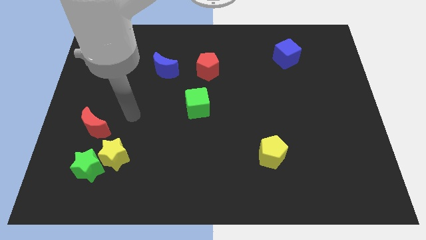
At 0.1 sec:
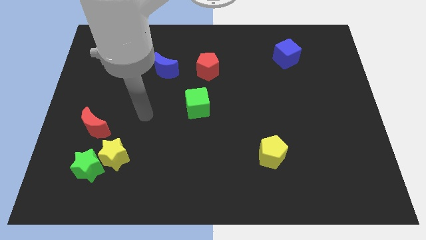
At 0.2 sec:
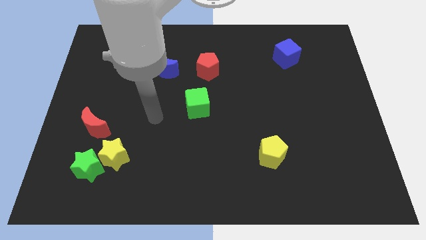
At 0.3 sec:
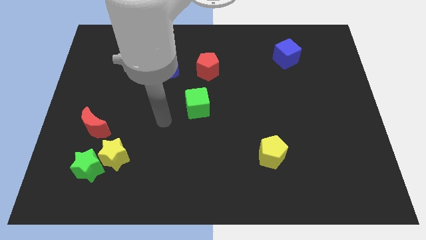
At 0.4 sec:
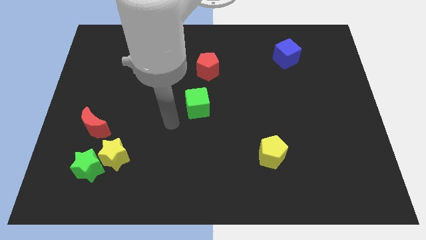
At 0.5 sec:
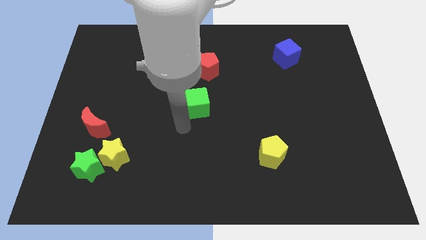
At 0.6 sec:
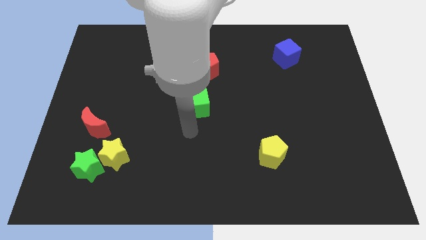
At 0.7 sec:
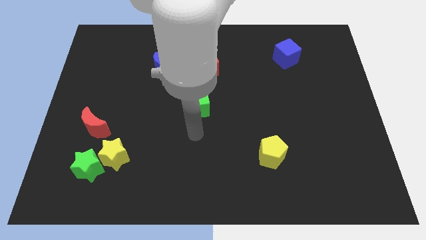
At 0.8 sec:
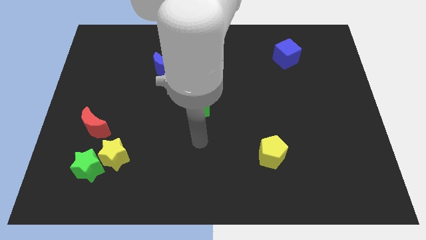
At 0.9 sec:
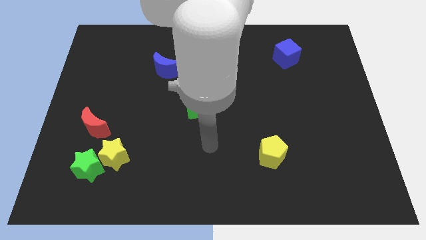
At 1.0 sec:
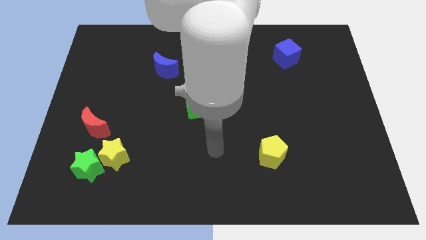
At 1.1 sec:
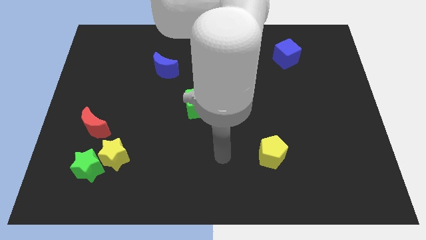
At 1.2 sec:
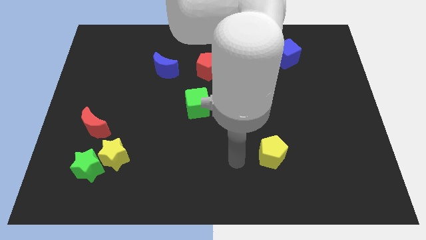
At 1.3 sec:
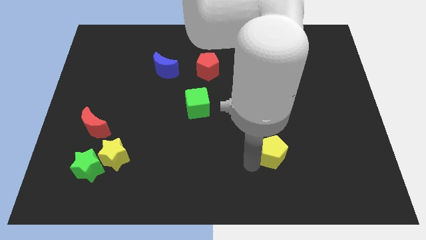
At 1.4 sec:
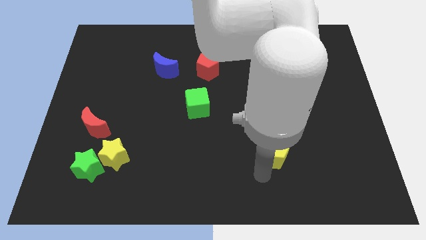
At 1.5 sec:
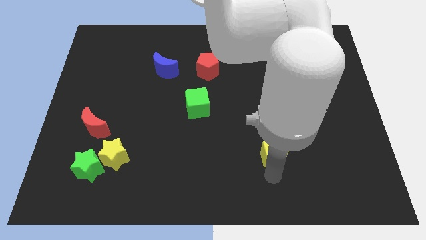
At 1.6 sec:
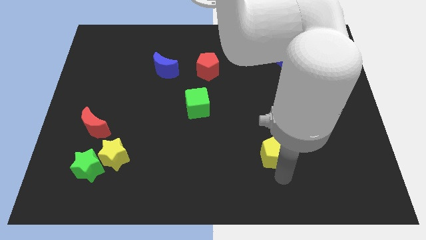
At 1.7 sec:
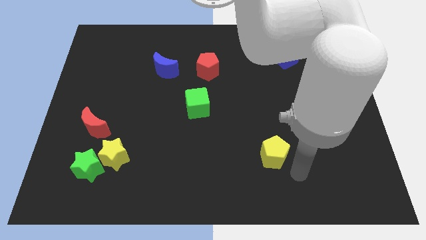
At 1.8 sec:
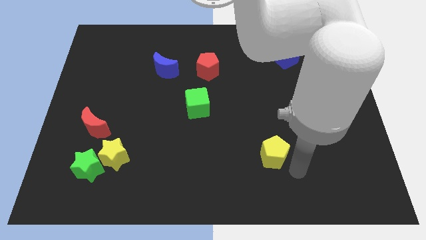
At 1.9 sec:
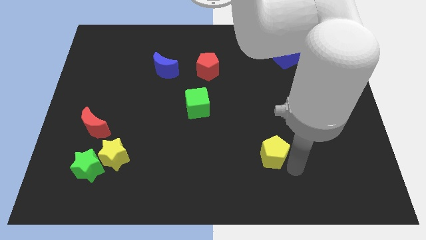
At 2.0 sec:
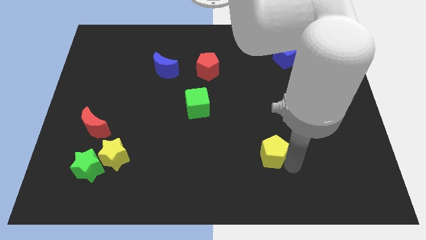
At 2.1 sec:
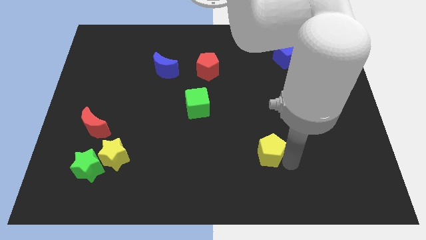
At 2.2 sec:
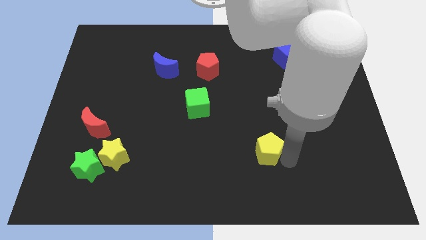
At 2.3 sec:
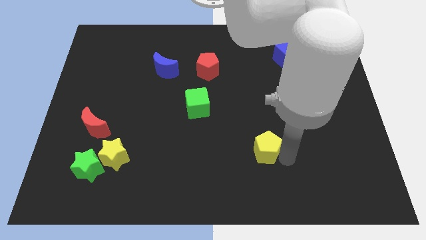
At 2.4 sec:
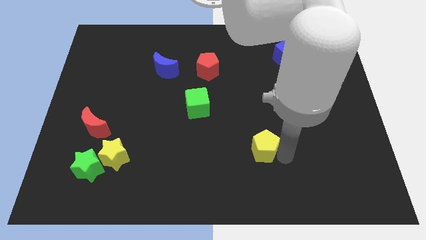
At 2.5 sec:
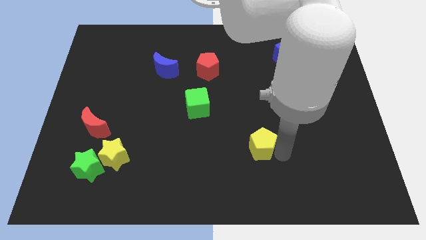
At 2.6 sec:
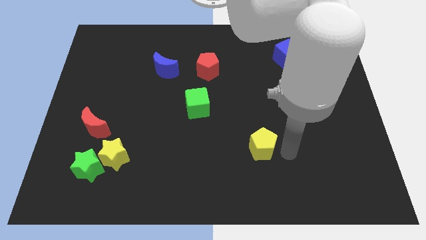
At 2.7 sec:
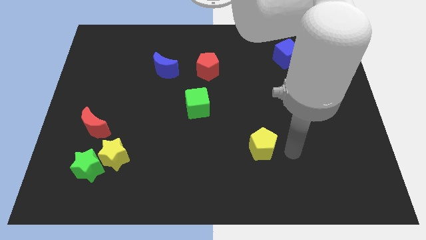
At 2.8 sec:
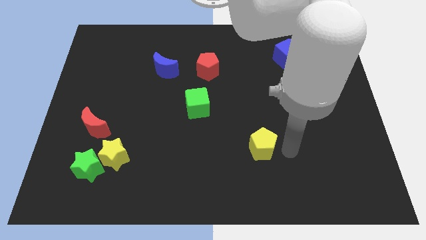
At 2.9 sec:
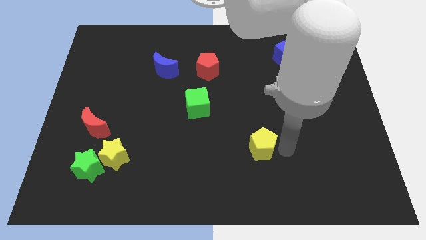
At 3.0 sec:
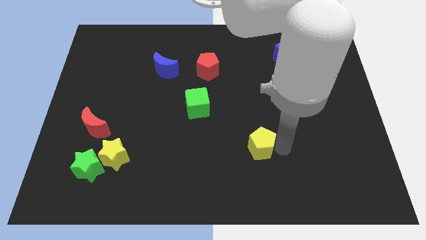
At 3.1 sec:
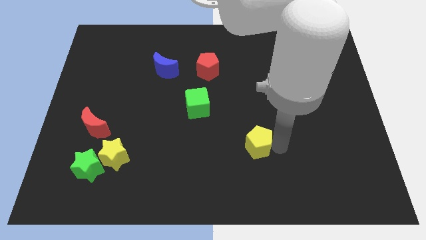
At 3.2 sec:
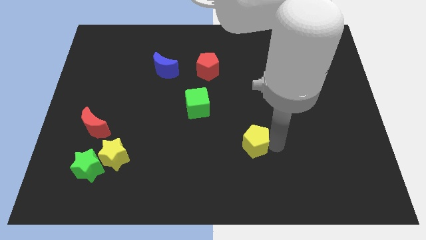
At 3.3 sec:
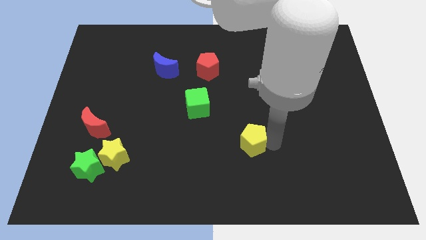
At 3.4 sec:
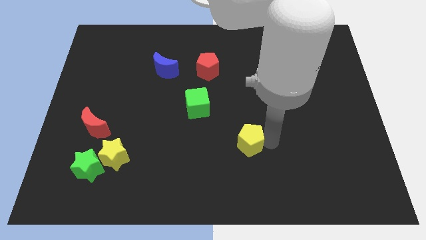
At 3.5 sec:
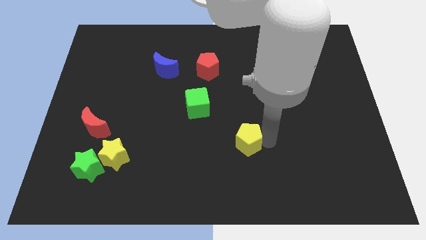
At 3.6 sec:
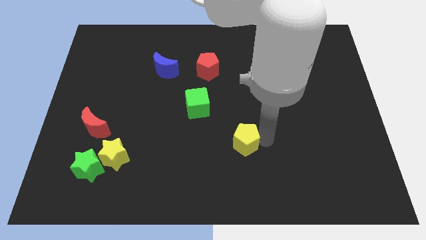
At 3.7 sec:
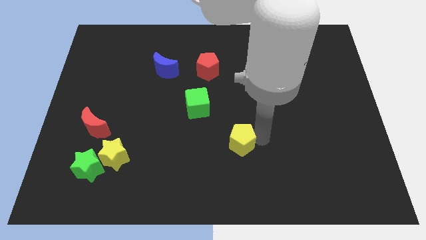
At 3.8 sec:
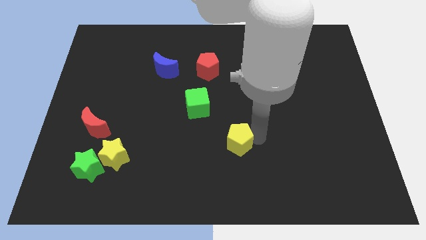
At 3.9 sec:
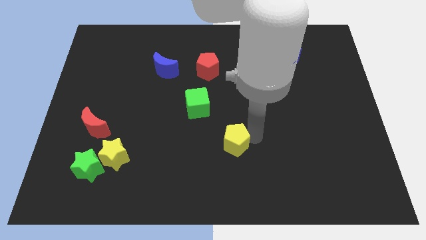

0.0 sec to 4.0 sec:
push the yellow pentagon a bit left

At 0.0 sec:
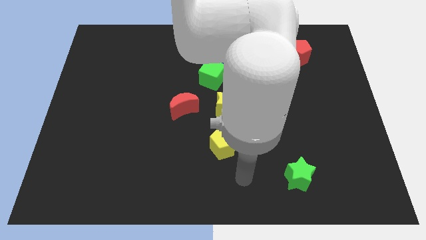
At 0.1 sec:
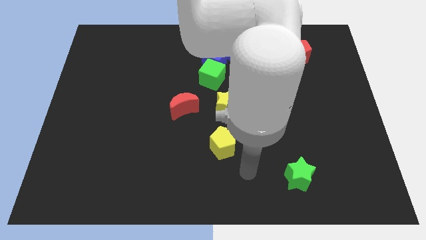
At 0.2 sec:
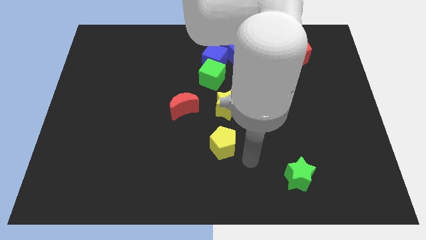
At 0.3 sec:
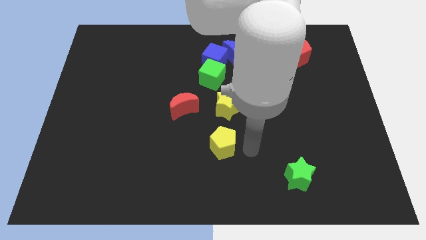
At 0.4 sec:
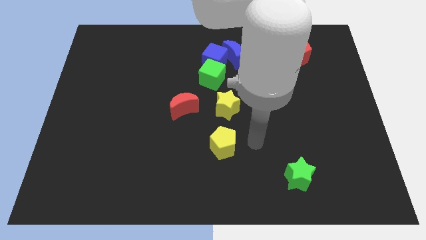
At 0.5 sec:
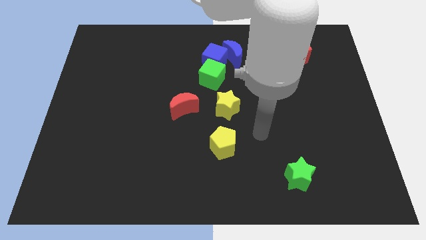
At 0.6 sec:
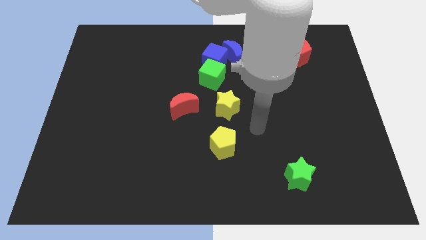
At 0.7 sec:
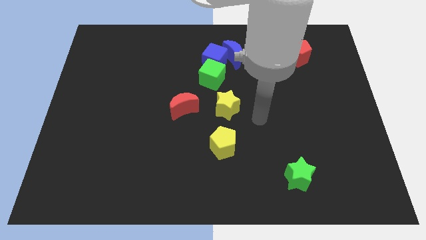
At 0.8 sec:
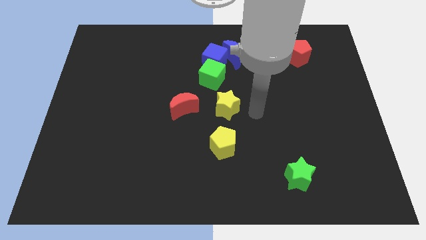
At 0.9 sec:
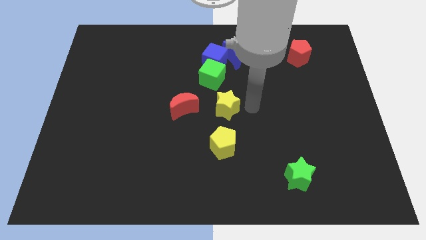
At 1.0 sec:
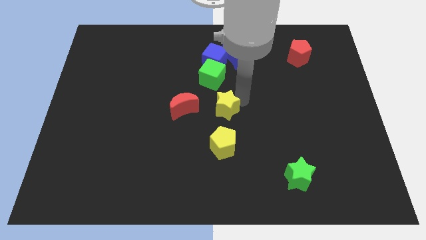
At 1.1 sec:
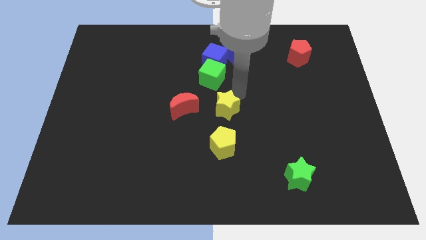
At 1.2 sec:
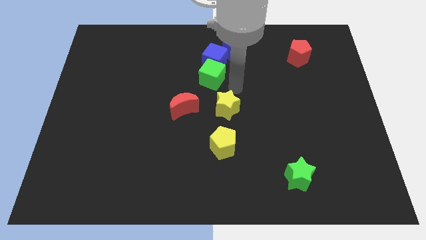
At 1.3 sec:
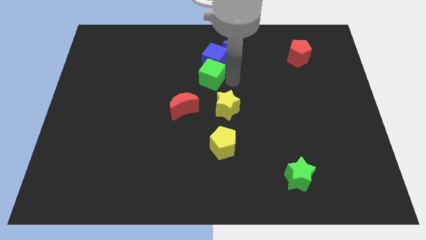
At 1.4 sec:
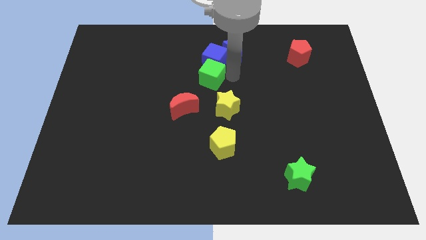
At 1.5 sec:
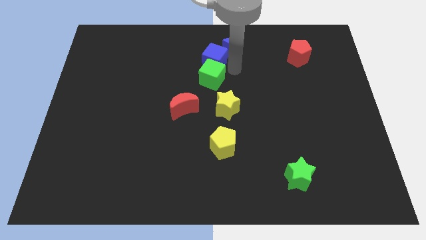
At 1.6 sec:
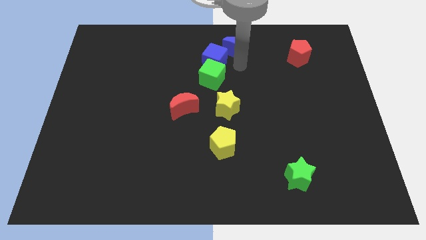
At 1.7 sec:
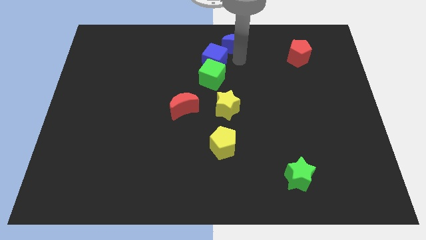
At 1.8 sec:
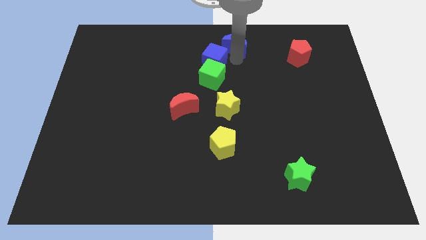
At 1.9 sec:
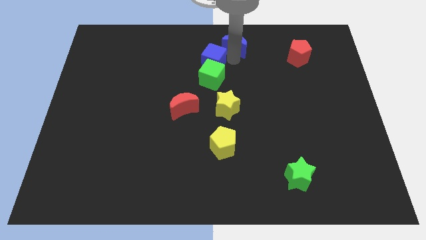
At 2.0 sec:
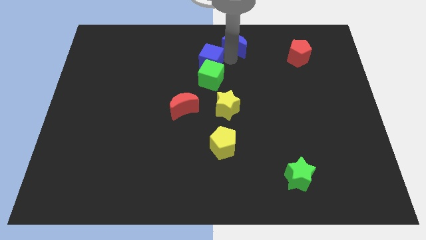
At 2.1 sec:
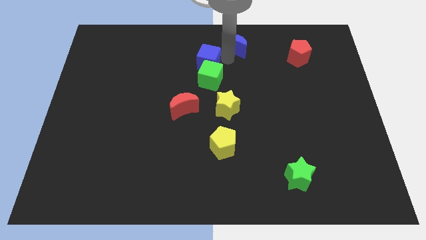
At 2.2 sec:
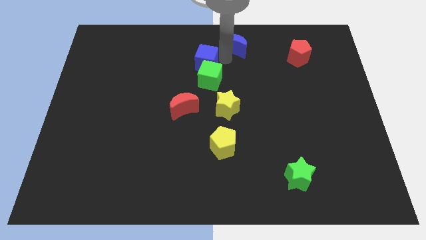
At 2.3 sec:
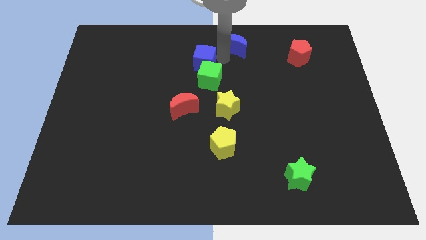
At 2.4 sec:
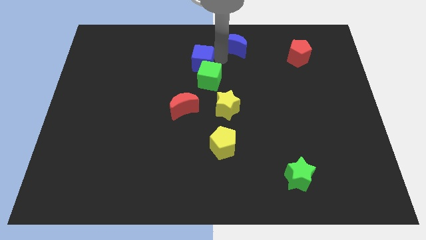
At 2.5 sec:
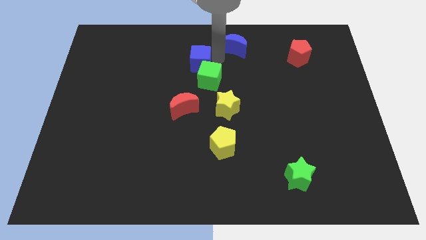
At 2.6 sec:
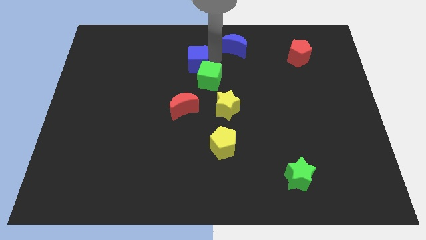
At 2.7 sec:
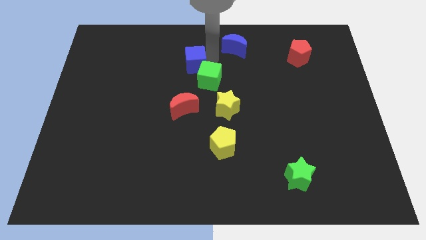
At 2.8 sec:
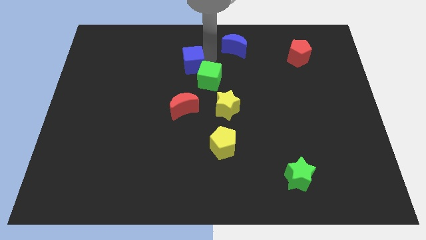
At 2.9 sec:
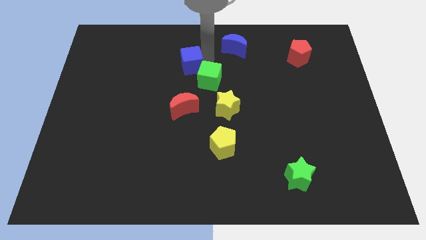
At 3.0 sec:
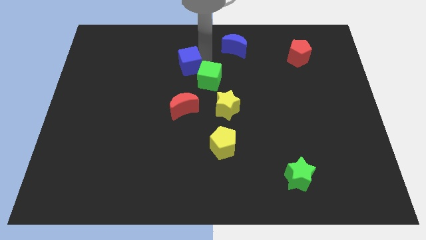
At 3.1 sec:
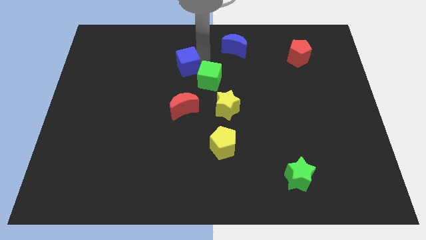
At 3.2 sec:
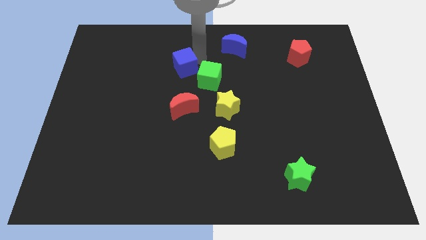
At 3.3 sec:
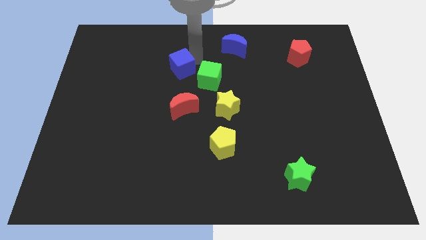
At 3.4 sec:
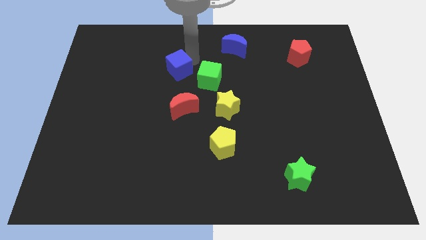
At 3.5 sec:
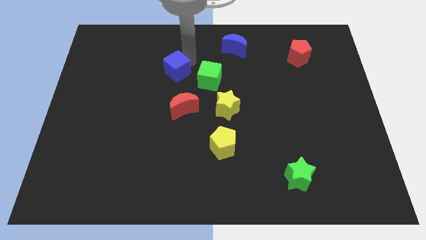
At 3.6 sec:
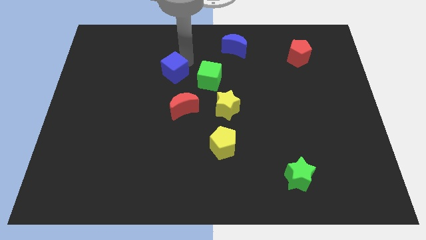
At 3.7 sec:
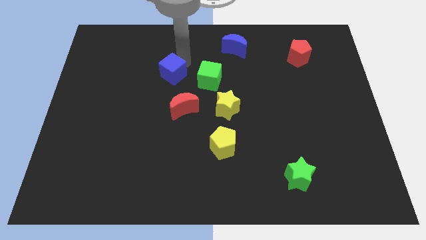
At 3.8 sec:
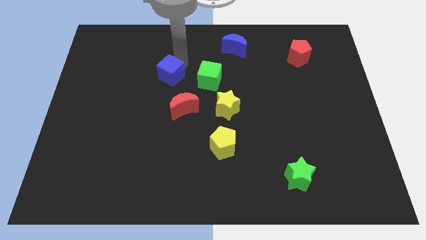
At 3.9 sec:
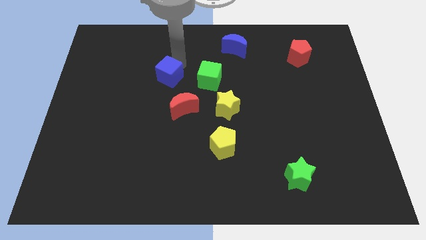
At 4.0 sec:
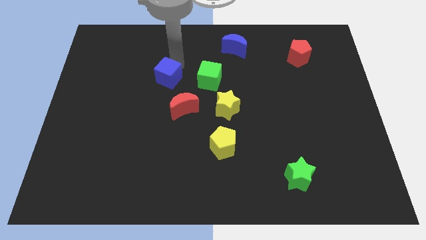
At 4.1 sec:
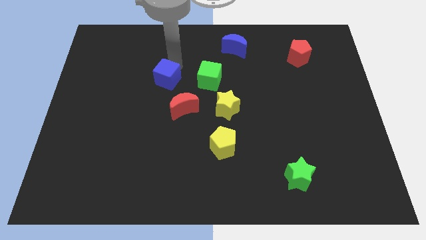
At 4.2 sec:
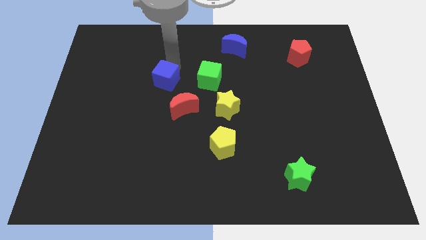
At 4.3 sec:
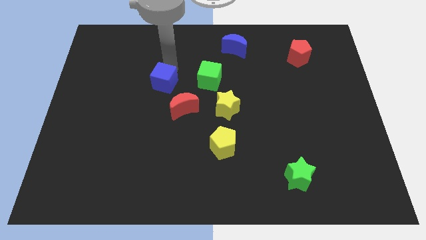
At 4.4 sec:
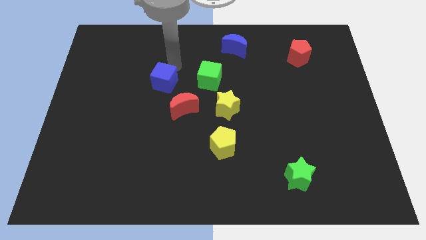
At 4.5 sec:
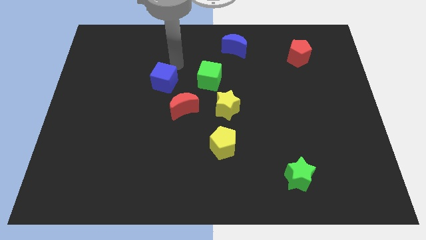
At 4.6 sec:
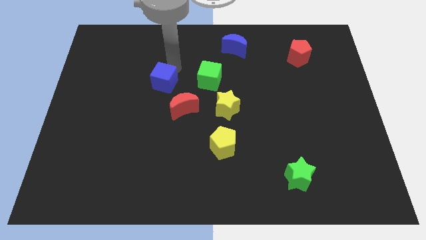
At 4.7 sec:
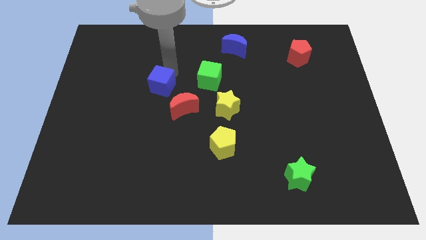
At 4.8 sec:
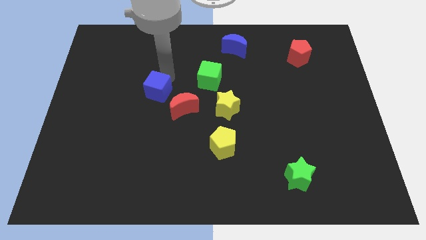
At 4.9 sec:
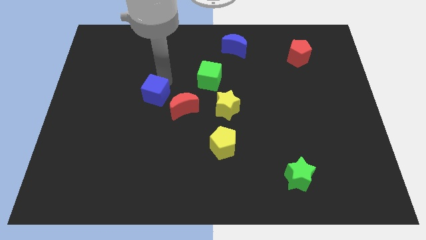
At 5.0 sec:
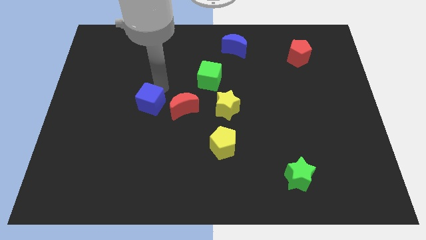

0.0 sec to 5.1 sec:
push the blue cube down and to the left diagonally
